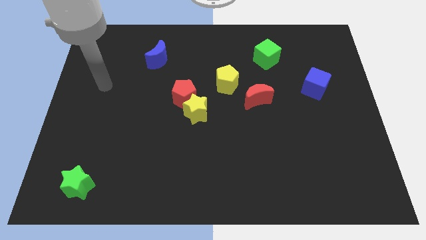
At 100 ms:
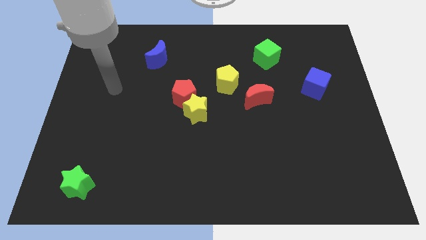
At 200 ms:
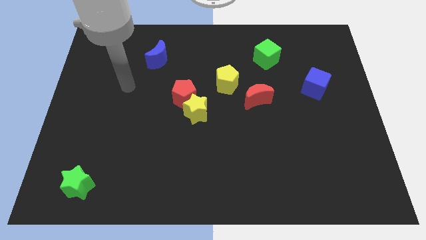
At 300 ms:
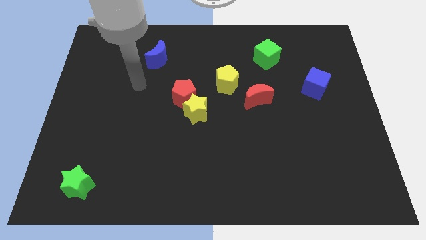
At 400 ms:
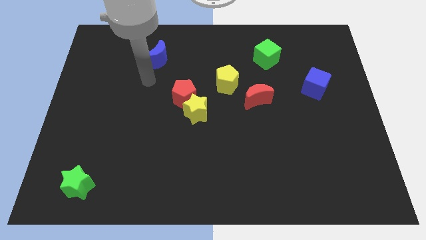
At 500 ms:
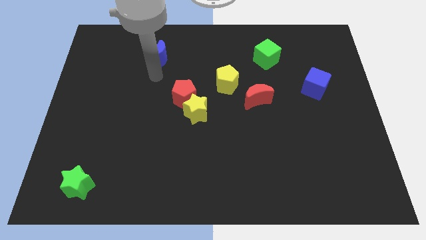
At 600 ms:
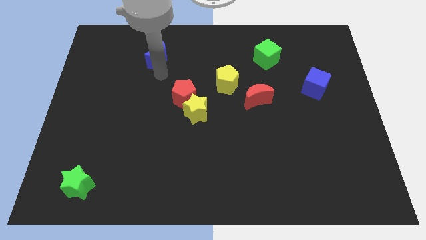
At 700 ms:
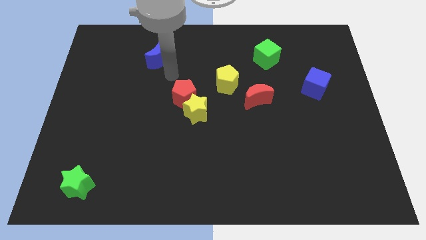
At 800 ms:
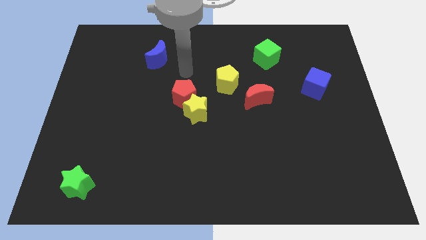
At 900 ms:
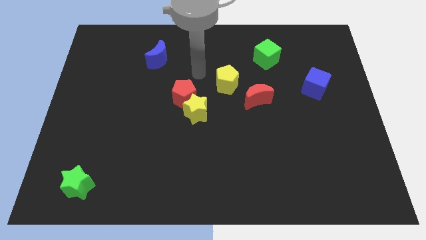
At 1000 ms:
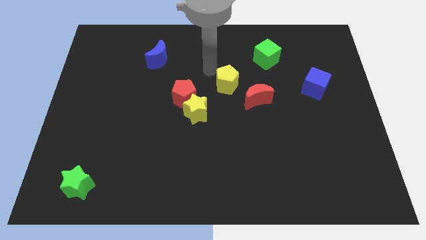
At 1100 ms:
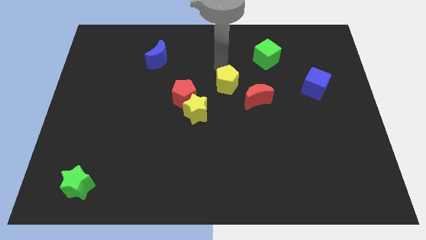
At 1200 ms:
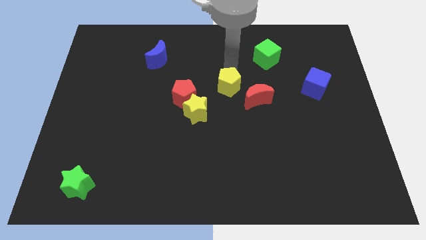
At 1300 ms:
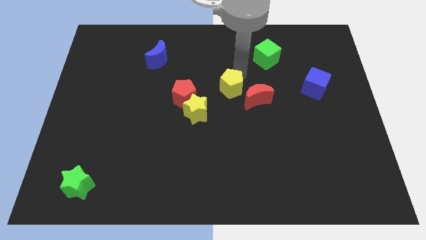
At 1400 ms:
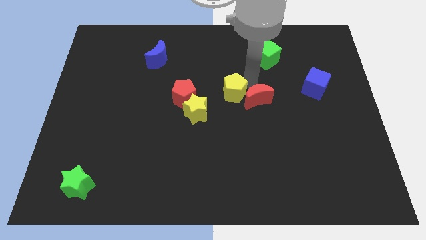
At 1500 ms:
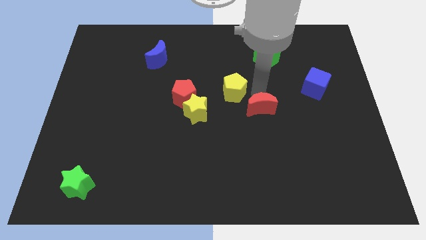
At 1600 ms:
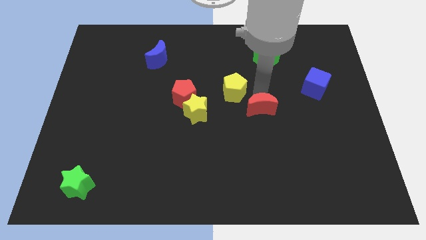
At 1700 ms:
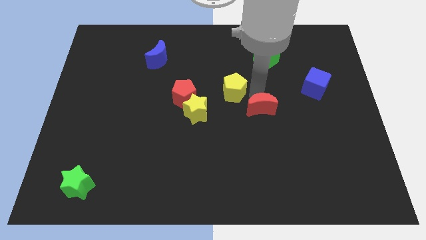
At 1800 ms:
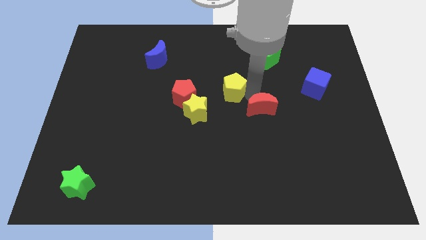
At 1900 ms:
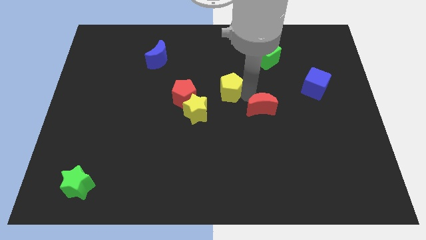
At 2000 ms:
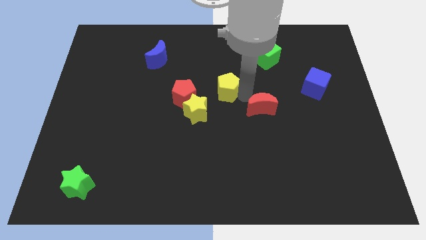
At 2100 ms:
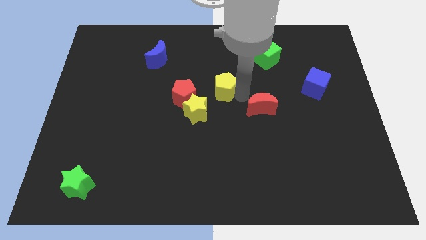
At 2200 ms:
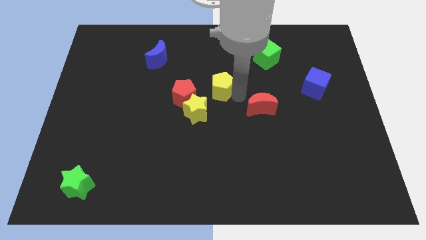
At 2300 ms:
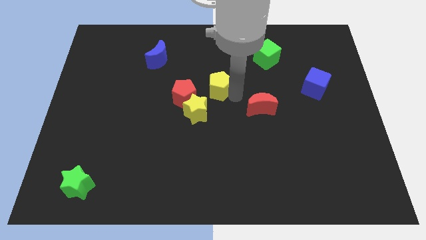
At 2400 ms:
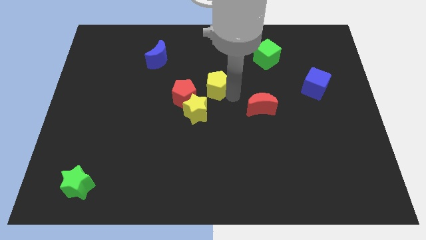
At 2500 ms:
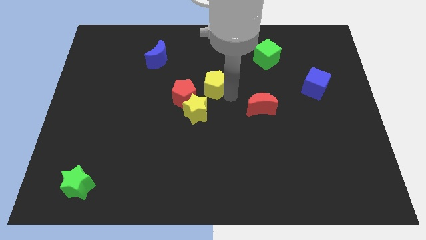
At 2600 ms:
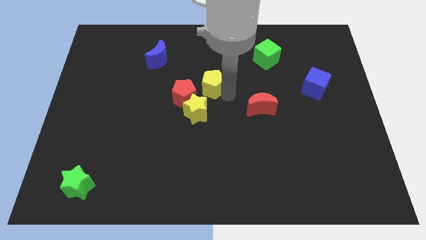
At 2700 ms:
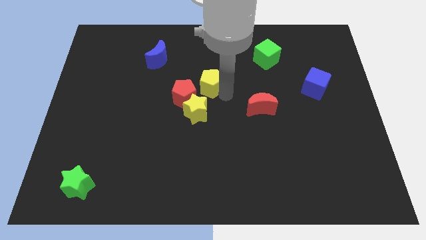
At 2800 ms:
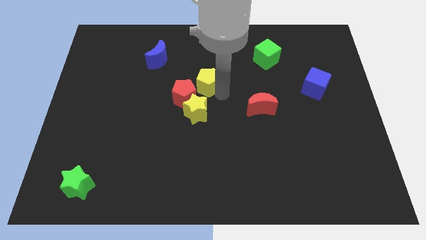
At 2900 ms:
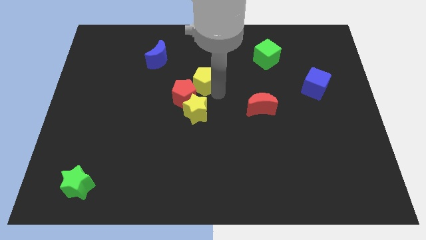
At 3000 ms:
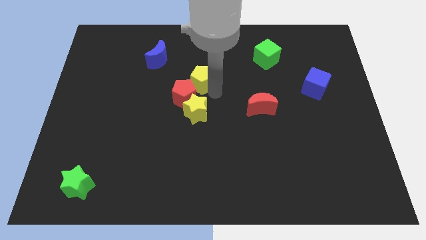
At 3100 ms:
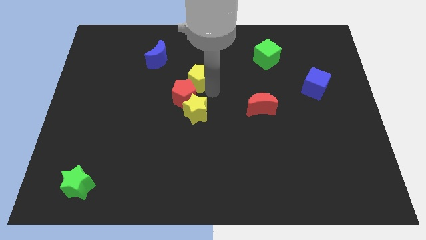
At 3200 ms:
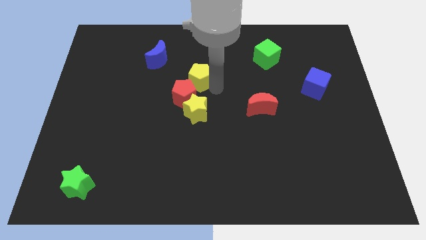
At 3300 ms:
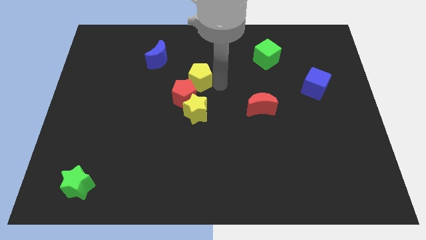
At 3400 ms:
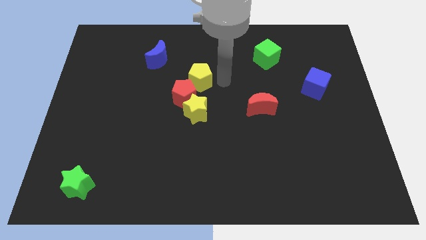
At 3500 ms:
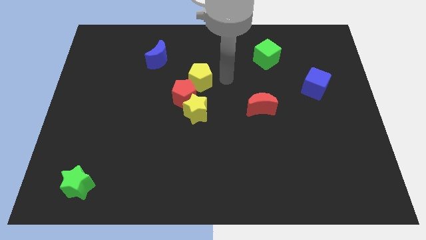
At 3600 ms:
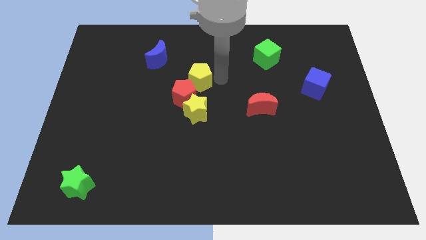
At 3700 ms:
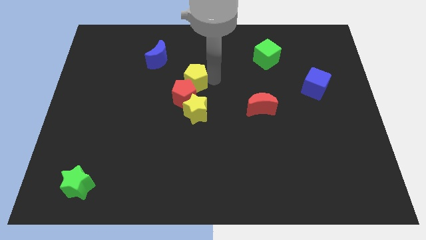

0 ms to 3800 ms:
slide the yellow pentagon left a little

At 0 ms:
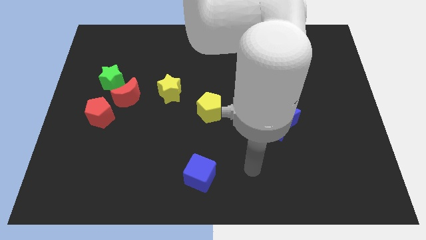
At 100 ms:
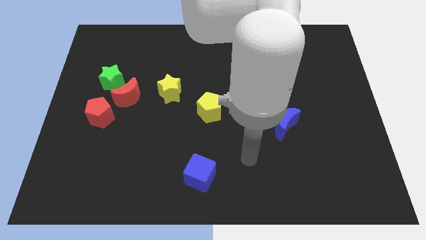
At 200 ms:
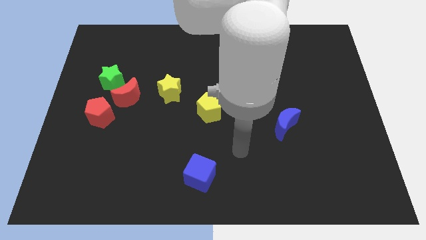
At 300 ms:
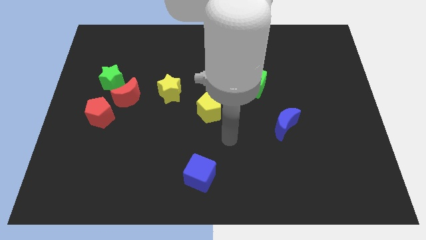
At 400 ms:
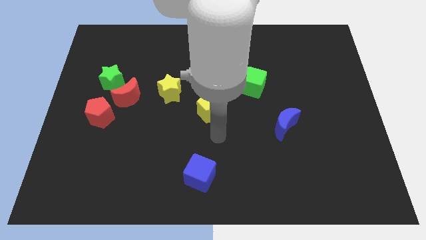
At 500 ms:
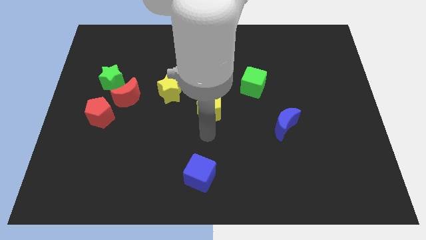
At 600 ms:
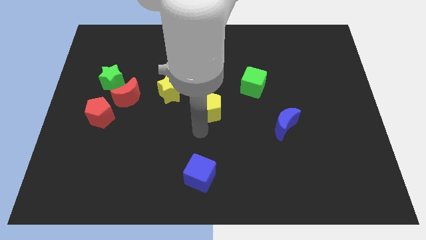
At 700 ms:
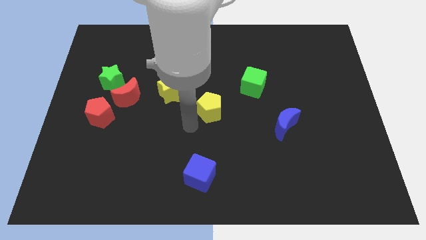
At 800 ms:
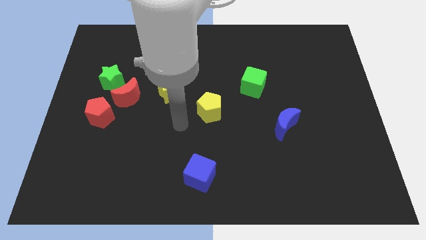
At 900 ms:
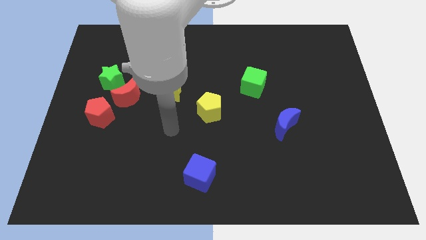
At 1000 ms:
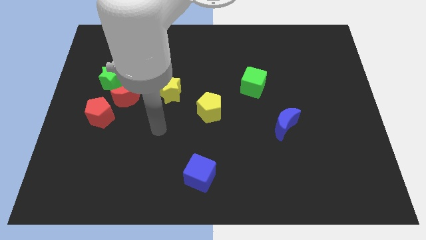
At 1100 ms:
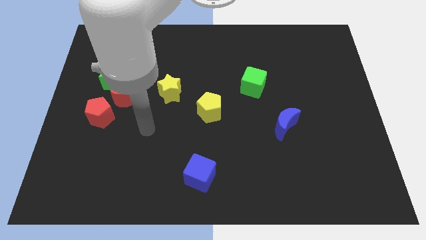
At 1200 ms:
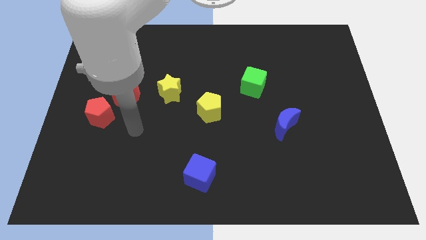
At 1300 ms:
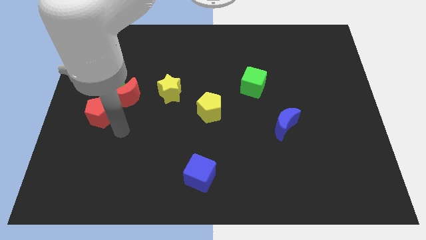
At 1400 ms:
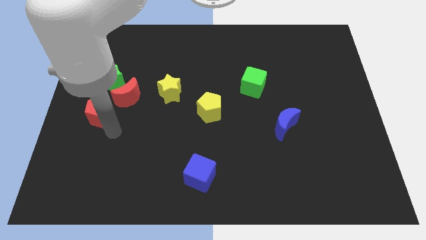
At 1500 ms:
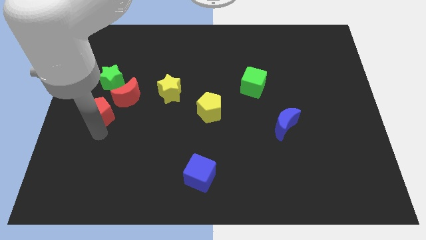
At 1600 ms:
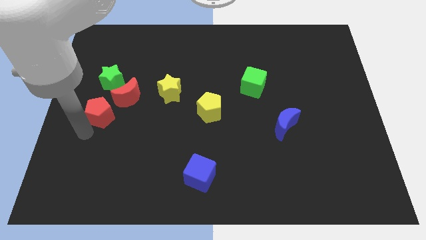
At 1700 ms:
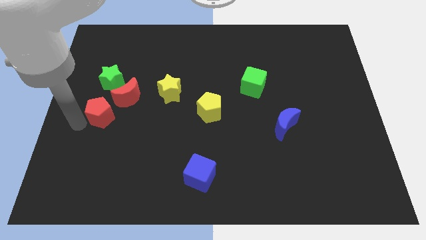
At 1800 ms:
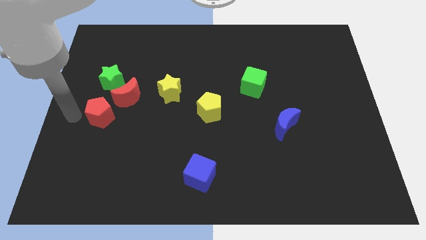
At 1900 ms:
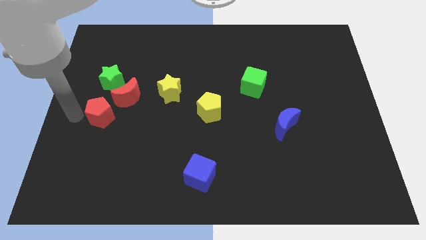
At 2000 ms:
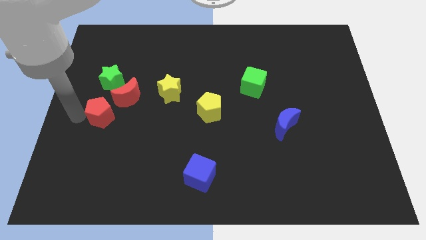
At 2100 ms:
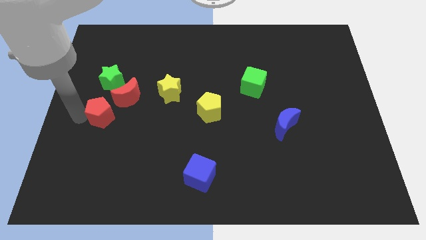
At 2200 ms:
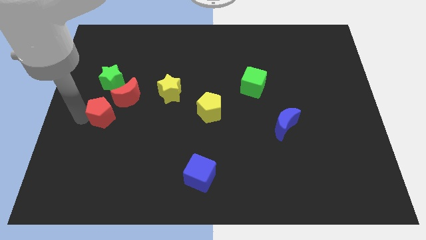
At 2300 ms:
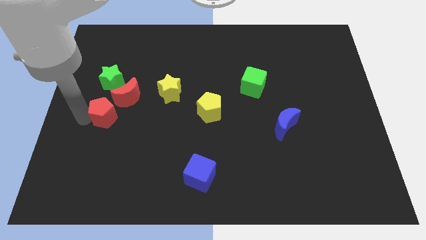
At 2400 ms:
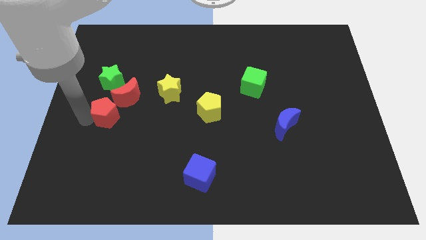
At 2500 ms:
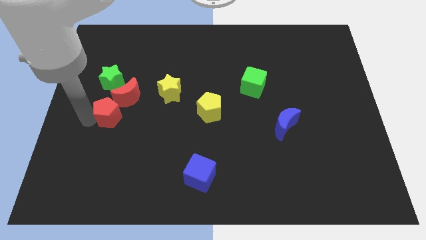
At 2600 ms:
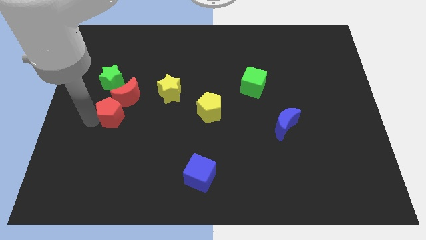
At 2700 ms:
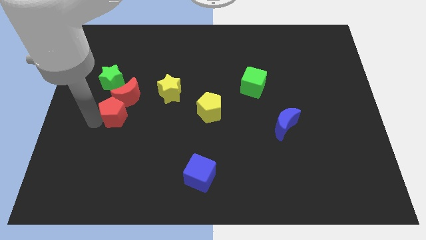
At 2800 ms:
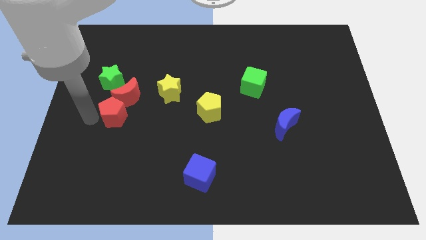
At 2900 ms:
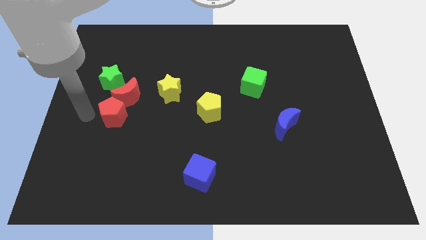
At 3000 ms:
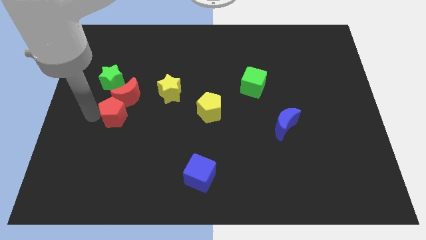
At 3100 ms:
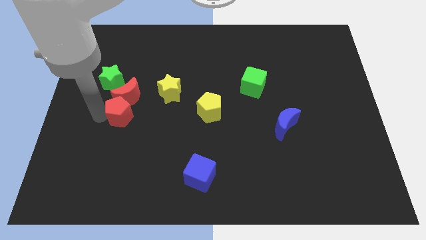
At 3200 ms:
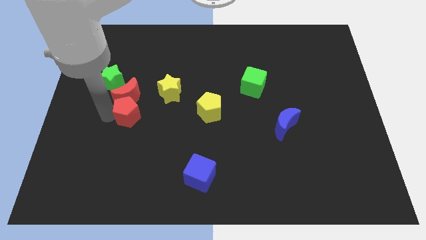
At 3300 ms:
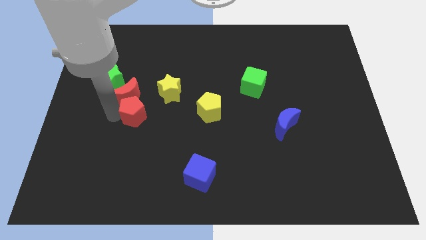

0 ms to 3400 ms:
slightly push the red pentagon right

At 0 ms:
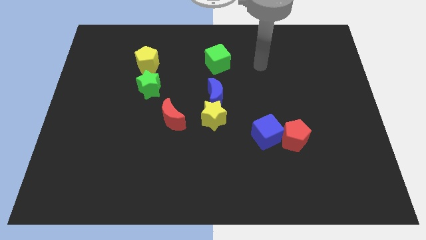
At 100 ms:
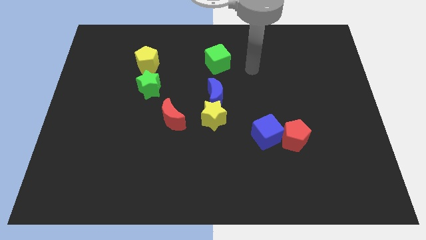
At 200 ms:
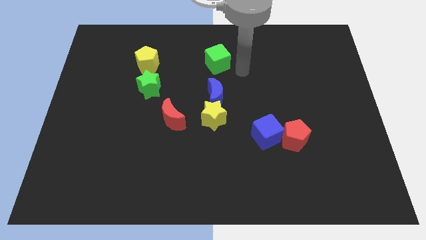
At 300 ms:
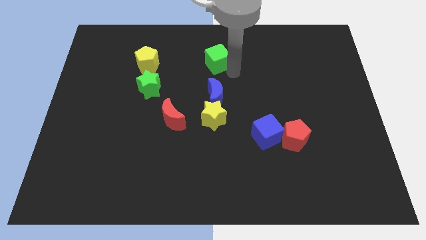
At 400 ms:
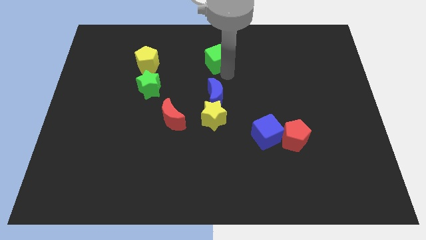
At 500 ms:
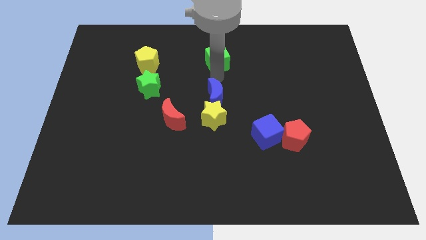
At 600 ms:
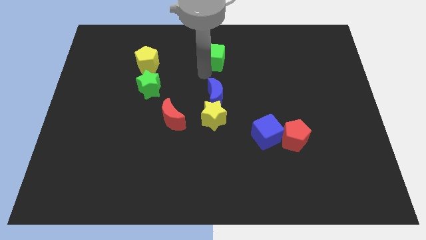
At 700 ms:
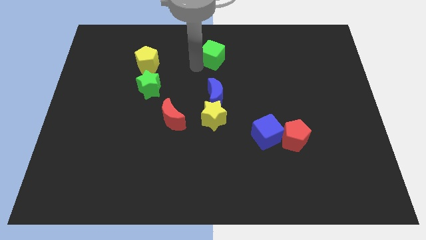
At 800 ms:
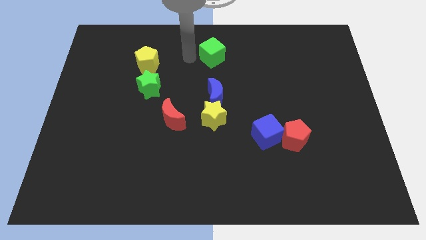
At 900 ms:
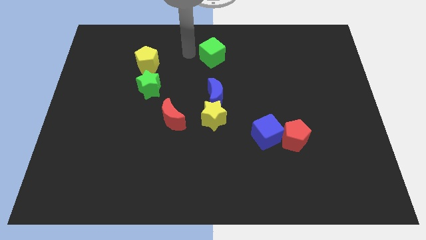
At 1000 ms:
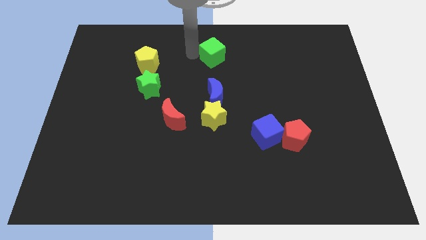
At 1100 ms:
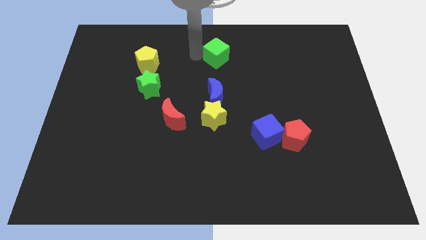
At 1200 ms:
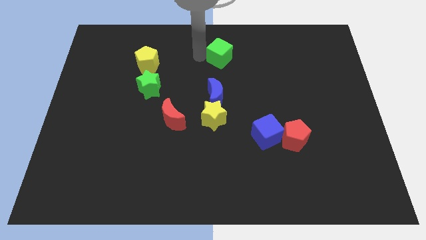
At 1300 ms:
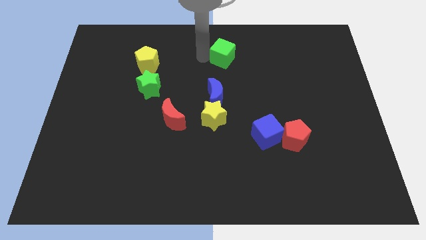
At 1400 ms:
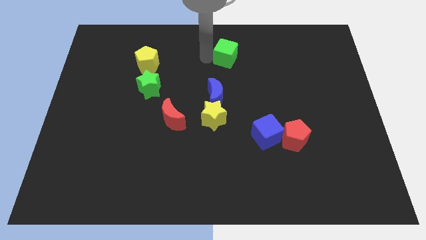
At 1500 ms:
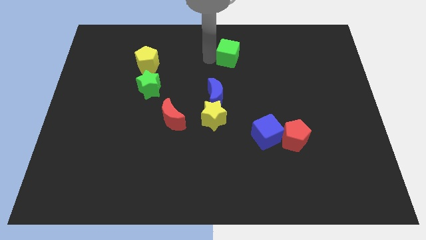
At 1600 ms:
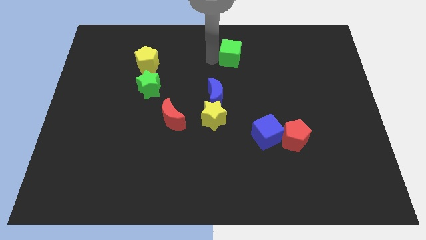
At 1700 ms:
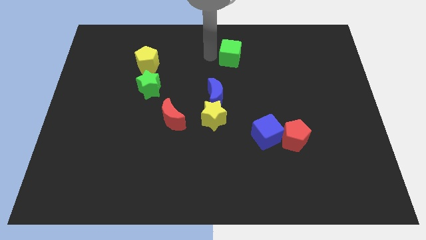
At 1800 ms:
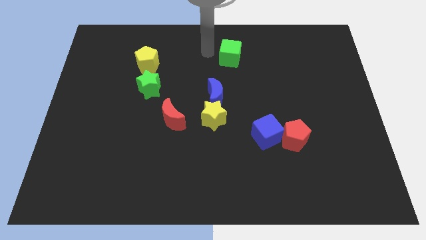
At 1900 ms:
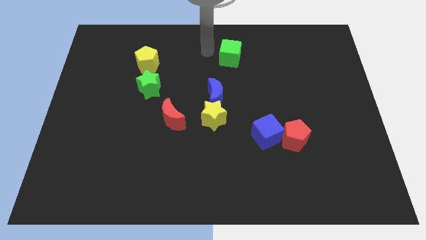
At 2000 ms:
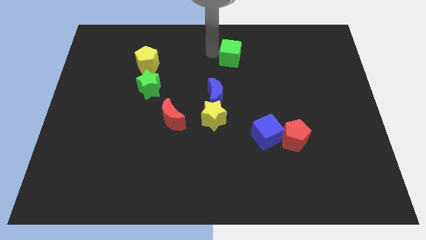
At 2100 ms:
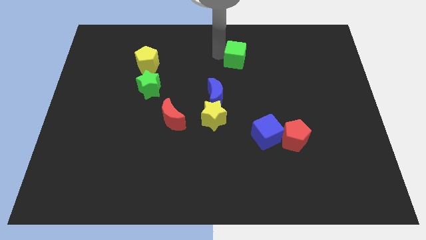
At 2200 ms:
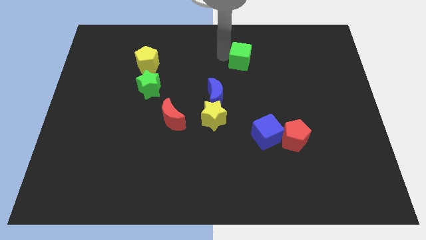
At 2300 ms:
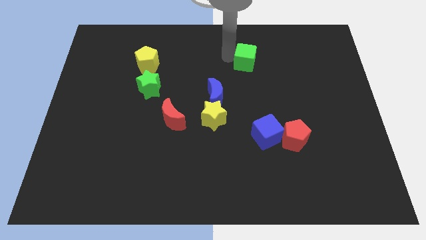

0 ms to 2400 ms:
slide the green cube right a little
